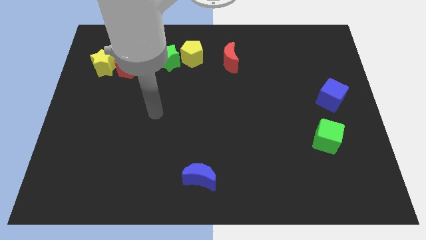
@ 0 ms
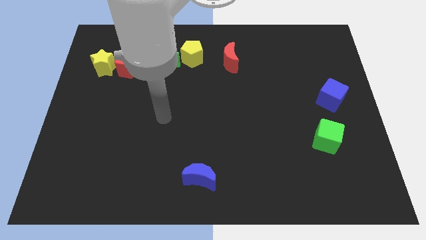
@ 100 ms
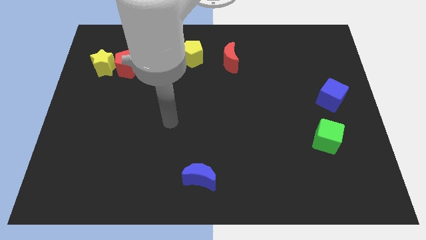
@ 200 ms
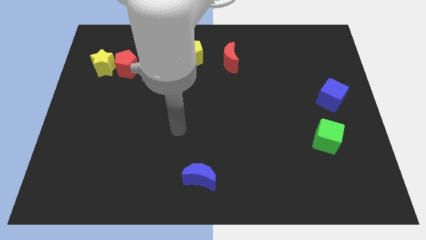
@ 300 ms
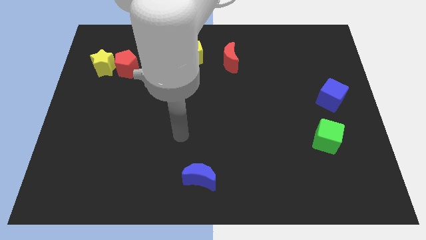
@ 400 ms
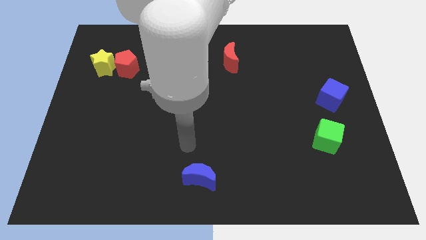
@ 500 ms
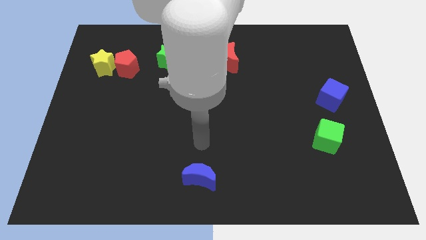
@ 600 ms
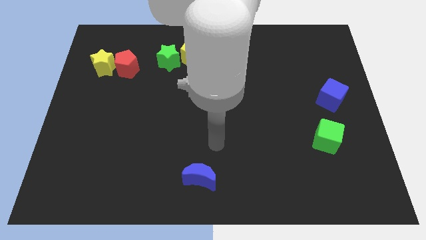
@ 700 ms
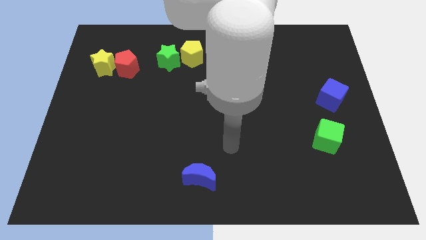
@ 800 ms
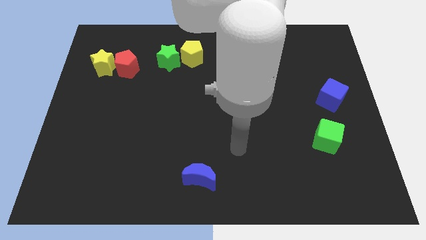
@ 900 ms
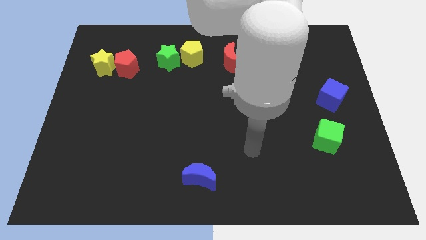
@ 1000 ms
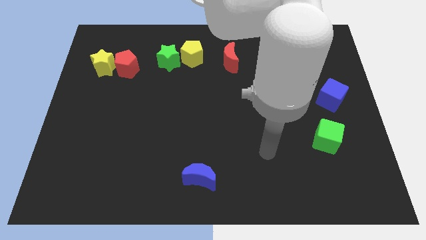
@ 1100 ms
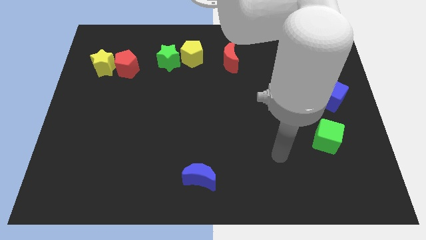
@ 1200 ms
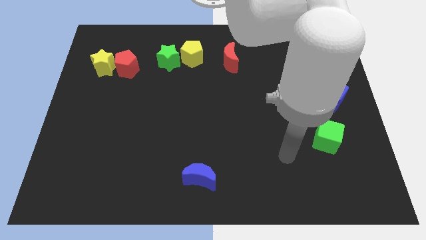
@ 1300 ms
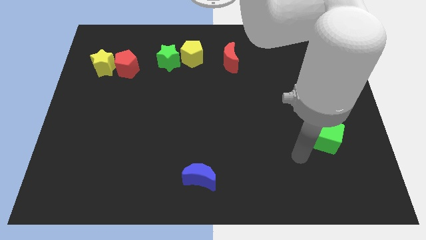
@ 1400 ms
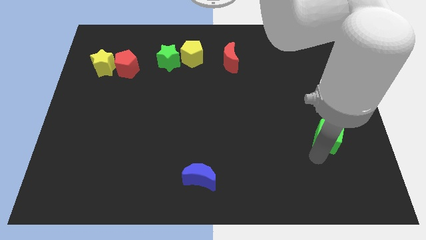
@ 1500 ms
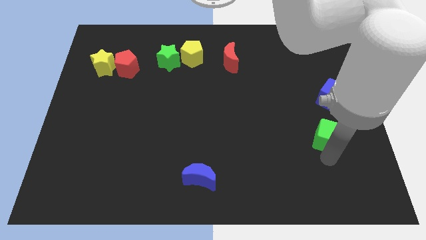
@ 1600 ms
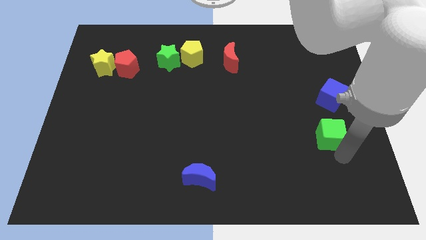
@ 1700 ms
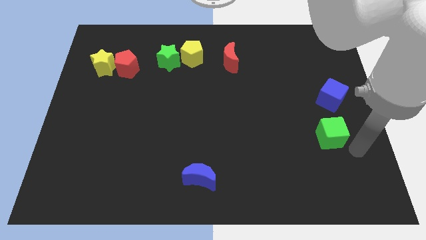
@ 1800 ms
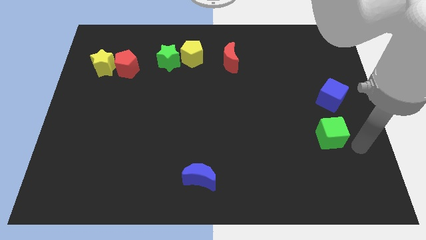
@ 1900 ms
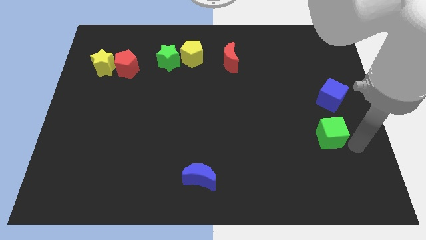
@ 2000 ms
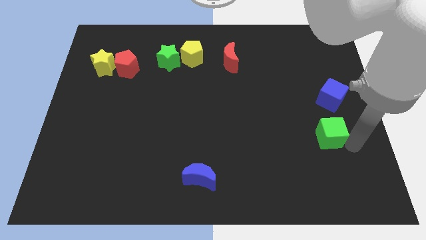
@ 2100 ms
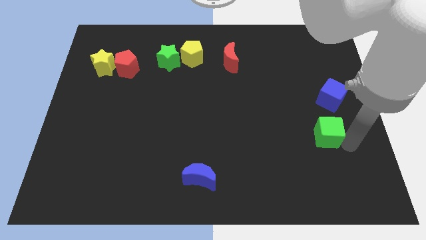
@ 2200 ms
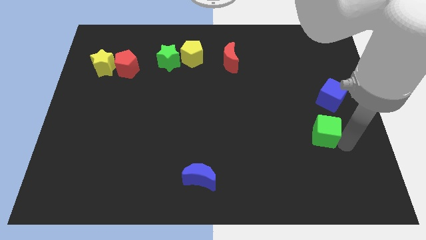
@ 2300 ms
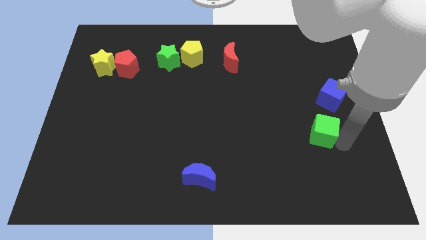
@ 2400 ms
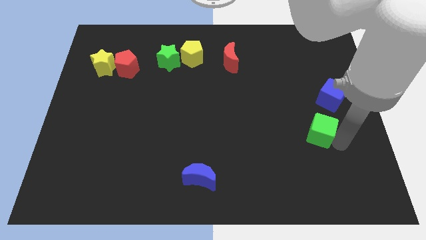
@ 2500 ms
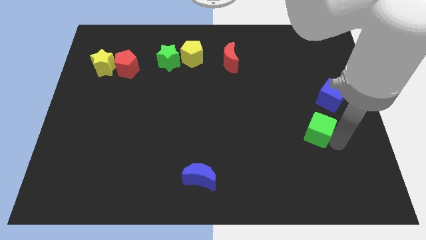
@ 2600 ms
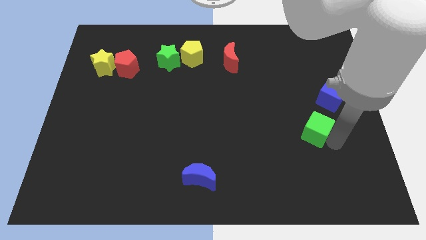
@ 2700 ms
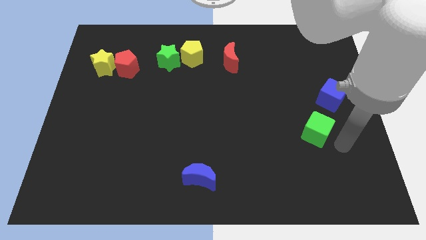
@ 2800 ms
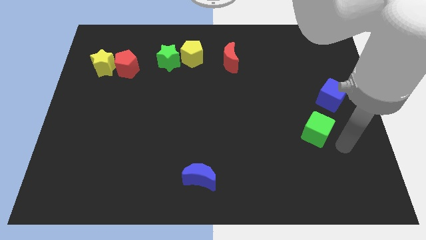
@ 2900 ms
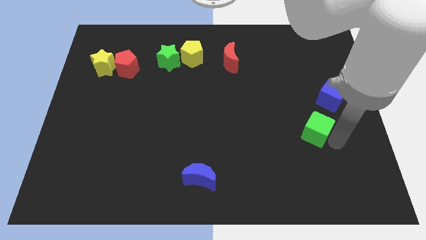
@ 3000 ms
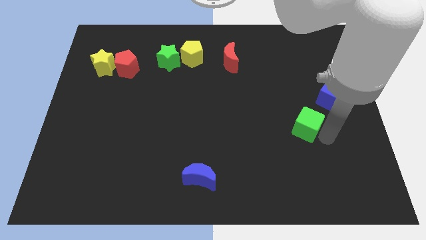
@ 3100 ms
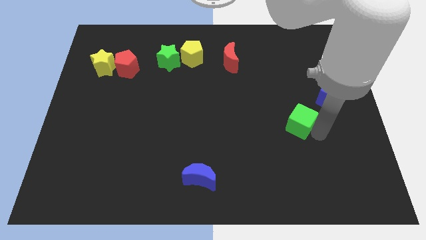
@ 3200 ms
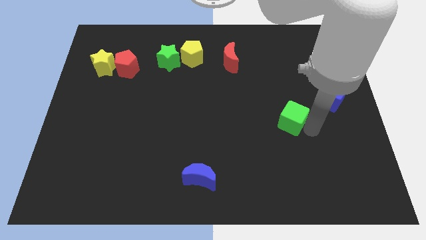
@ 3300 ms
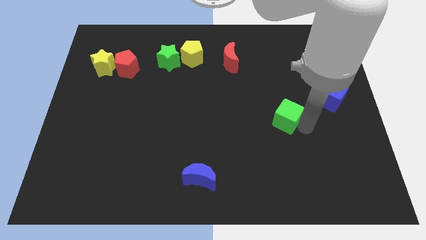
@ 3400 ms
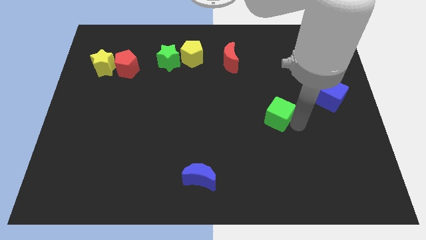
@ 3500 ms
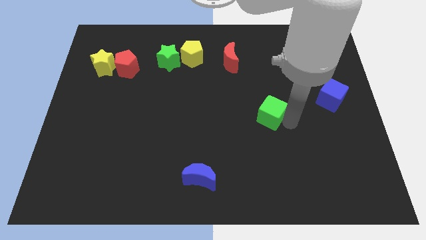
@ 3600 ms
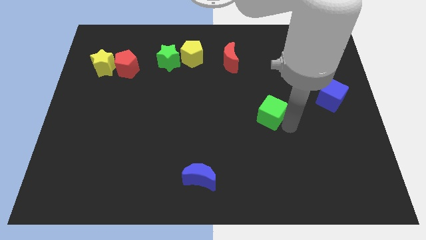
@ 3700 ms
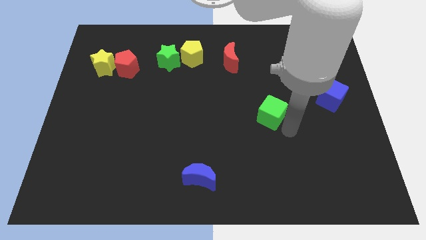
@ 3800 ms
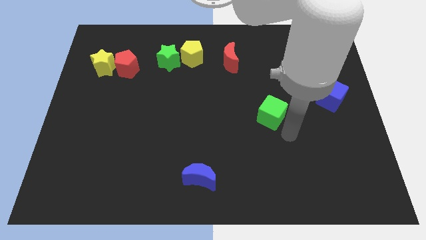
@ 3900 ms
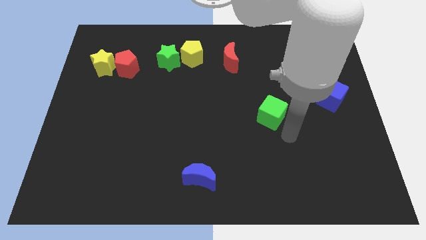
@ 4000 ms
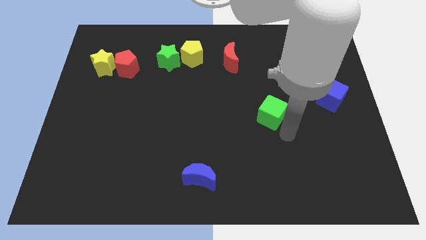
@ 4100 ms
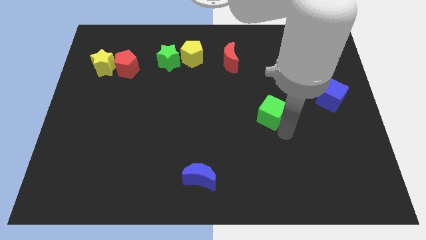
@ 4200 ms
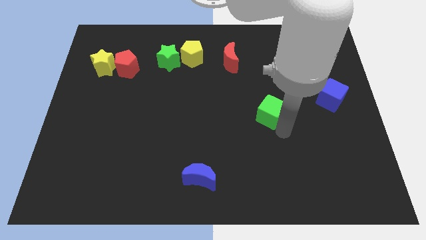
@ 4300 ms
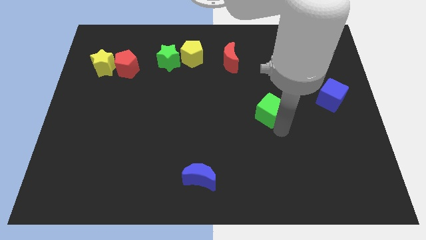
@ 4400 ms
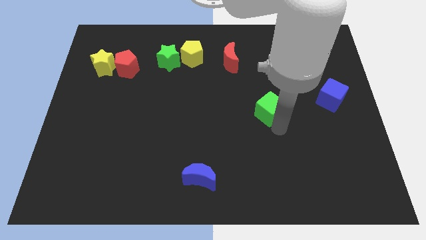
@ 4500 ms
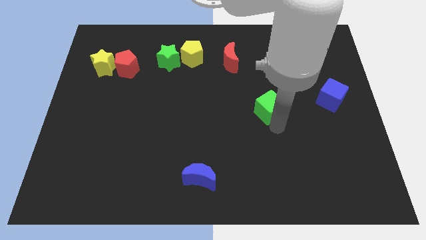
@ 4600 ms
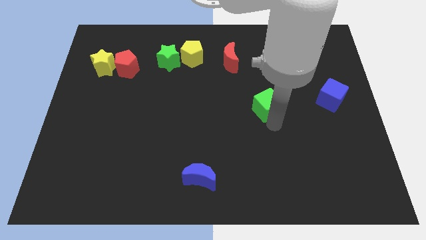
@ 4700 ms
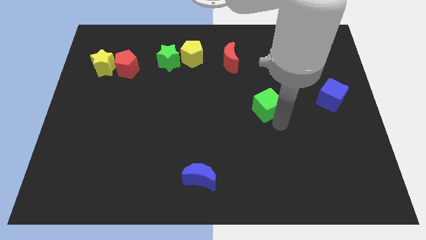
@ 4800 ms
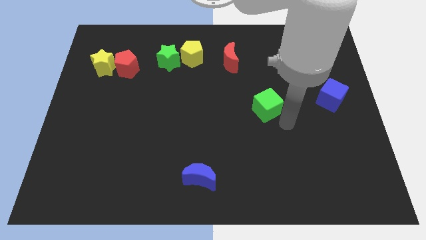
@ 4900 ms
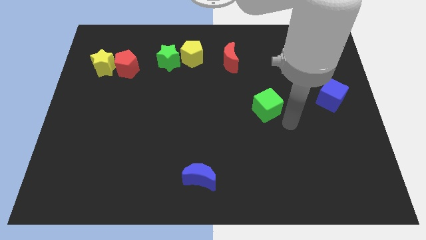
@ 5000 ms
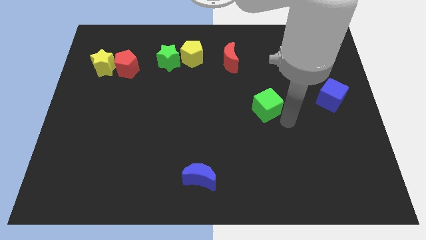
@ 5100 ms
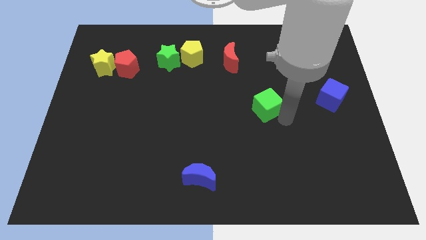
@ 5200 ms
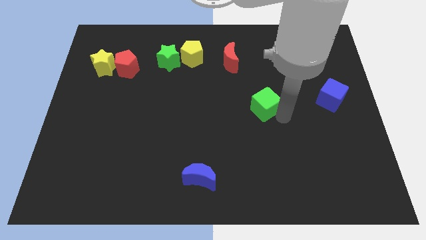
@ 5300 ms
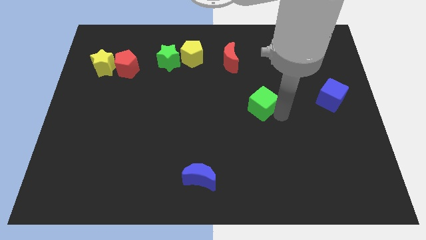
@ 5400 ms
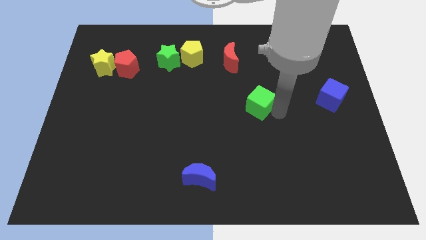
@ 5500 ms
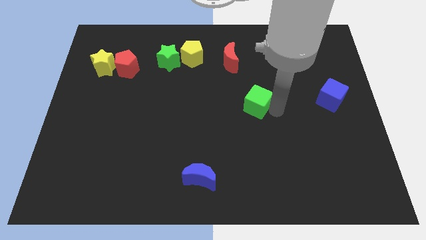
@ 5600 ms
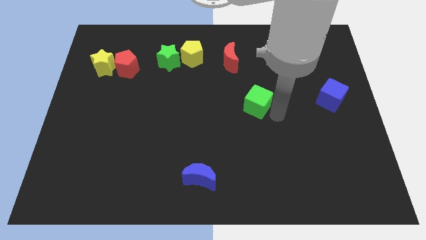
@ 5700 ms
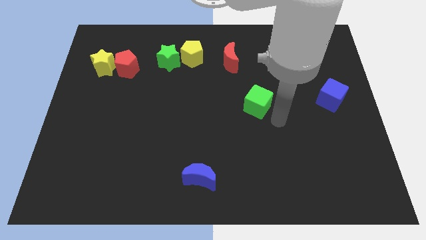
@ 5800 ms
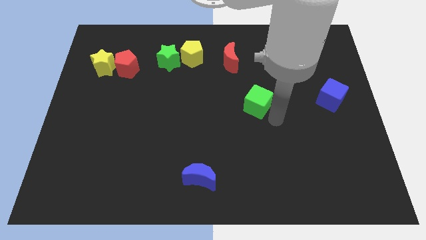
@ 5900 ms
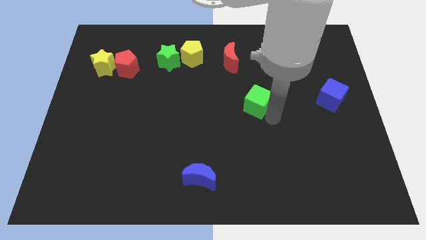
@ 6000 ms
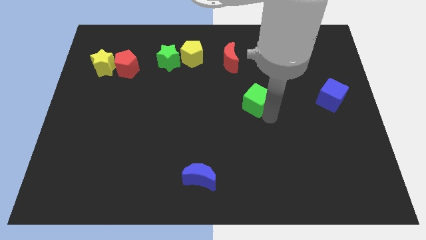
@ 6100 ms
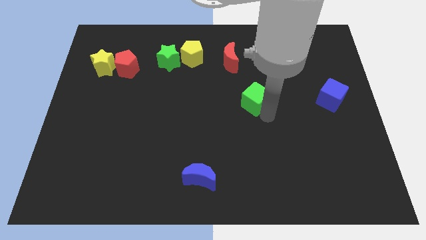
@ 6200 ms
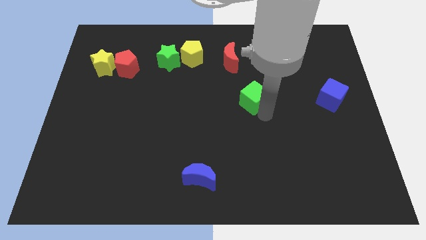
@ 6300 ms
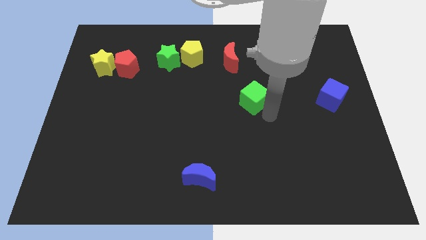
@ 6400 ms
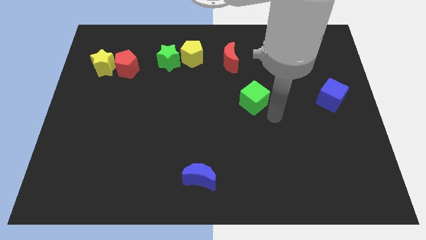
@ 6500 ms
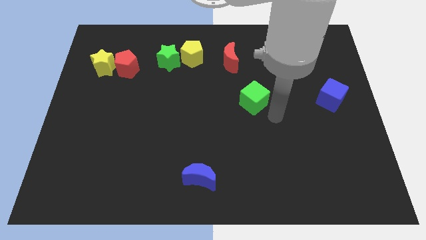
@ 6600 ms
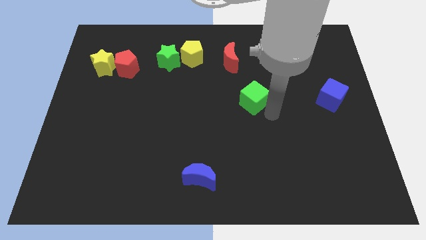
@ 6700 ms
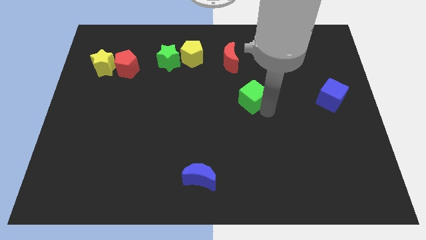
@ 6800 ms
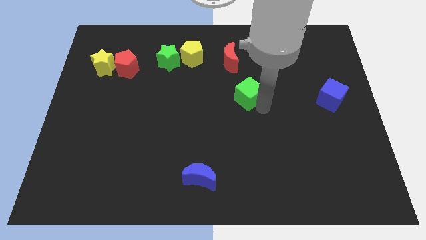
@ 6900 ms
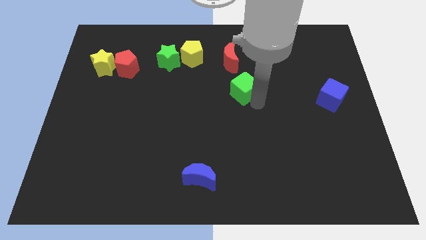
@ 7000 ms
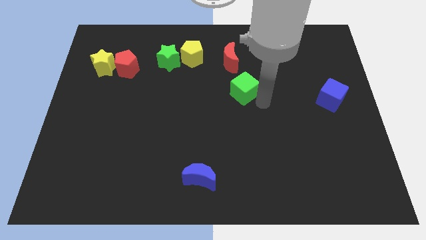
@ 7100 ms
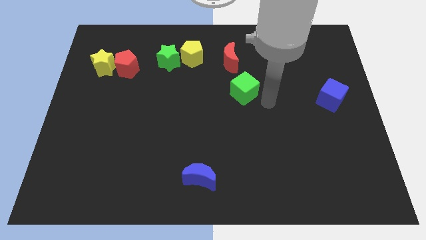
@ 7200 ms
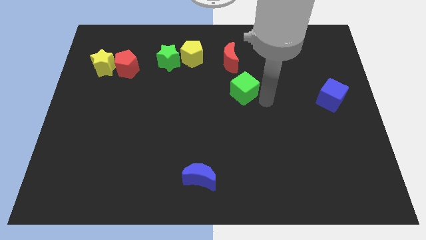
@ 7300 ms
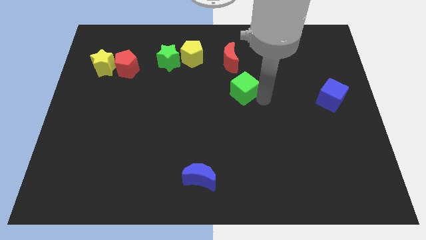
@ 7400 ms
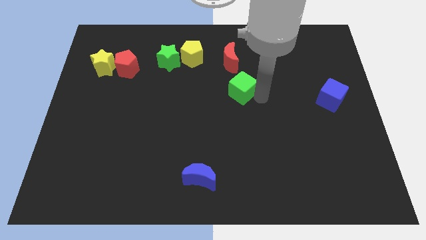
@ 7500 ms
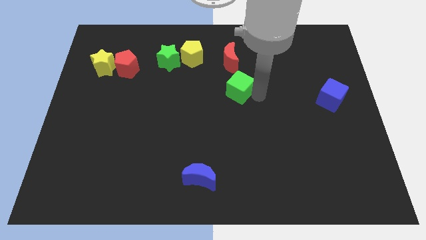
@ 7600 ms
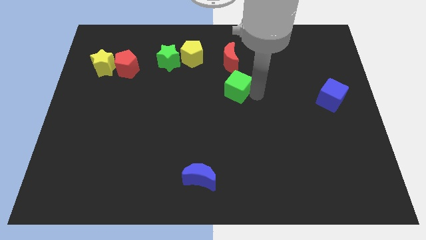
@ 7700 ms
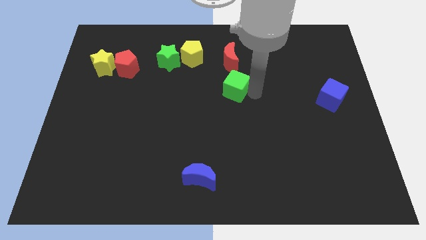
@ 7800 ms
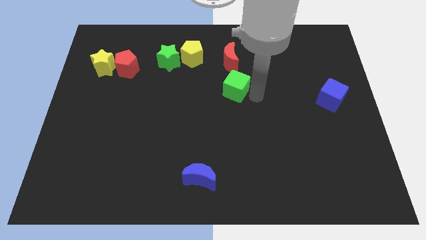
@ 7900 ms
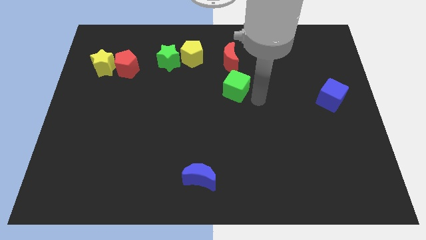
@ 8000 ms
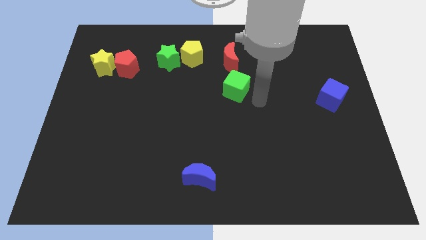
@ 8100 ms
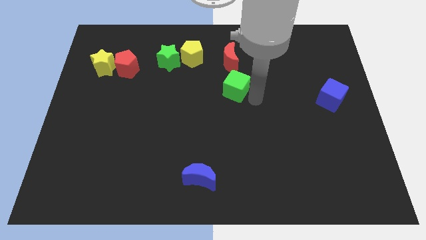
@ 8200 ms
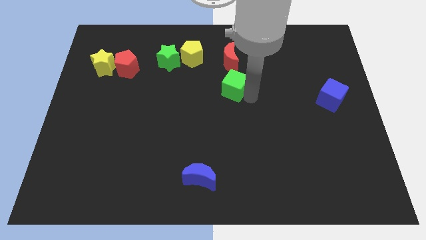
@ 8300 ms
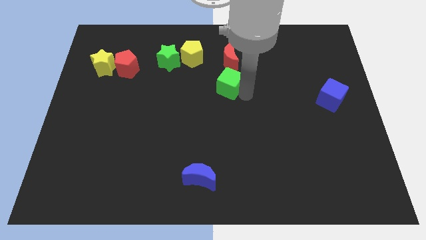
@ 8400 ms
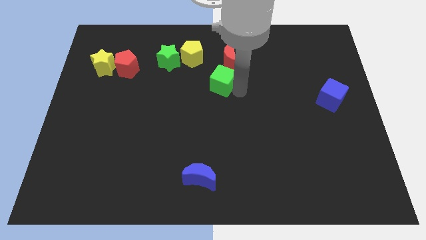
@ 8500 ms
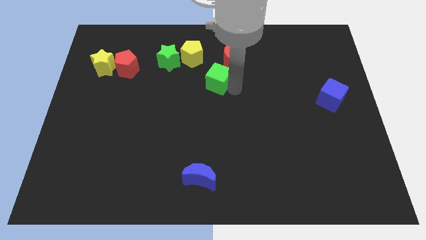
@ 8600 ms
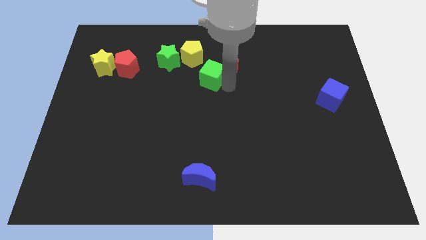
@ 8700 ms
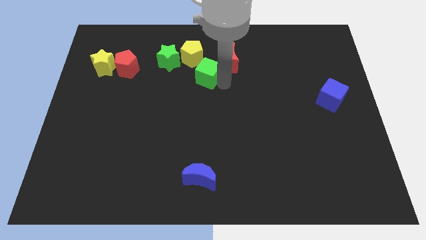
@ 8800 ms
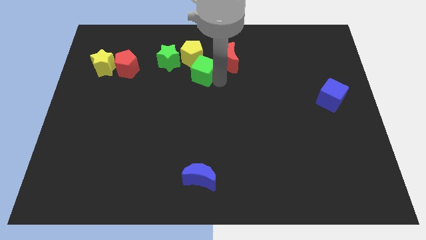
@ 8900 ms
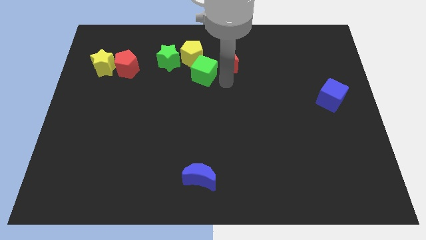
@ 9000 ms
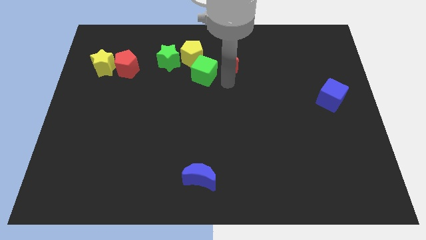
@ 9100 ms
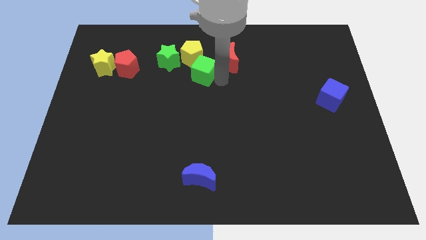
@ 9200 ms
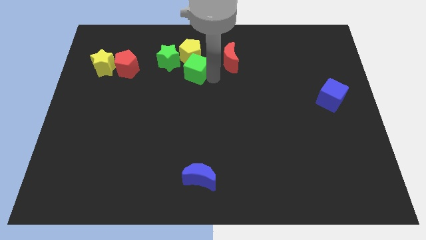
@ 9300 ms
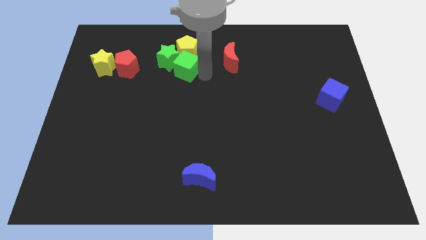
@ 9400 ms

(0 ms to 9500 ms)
move the green cube close to the green star
